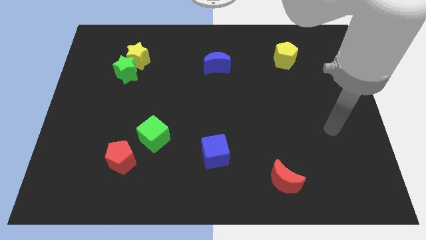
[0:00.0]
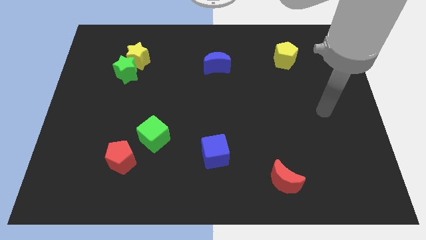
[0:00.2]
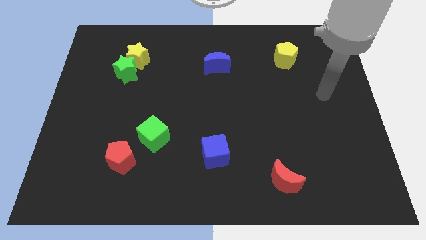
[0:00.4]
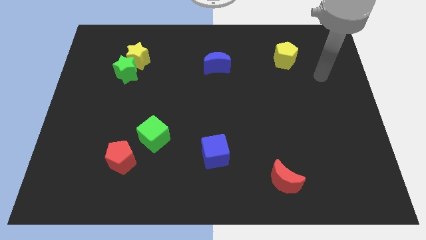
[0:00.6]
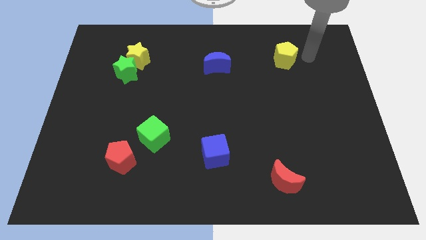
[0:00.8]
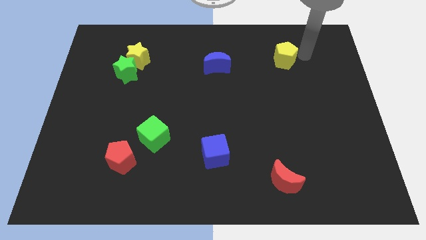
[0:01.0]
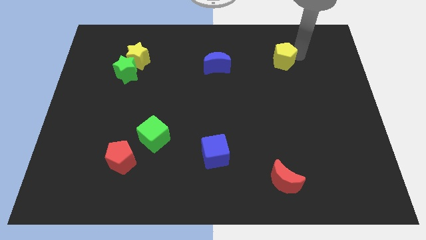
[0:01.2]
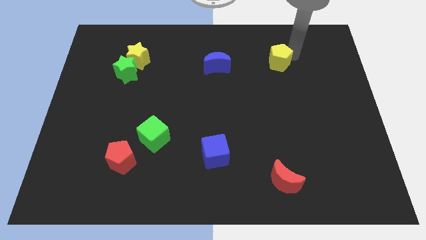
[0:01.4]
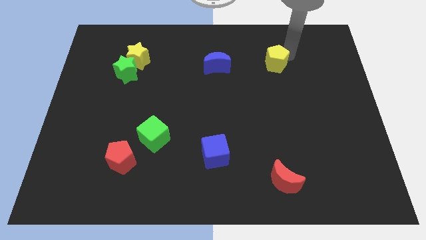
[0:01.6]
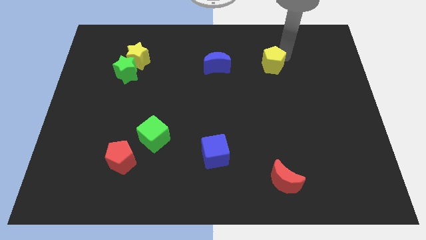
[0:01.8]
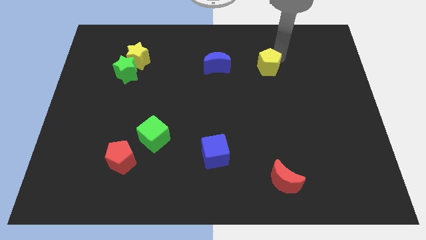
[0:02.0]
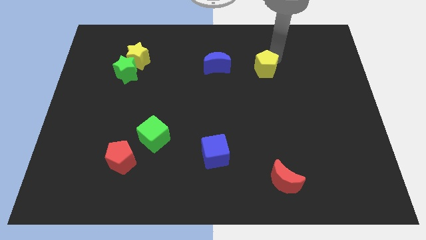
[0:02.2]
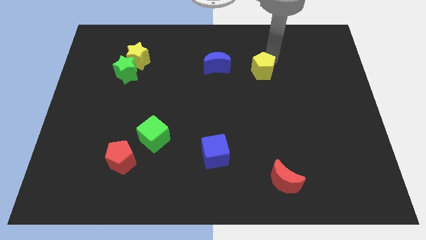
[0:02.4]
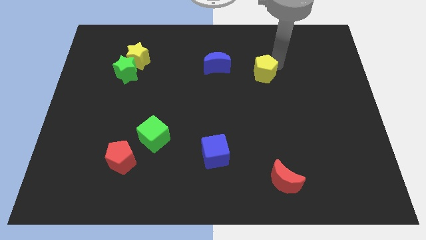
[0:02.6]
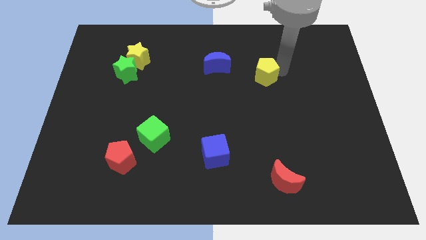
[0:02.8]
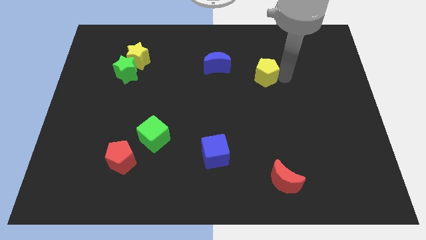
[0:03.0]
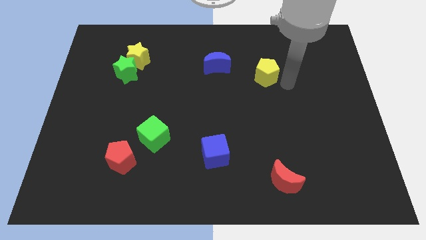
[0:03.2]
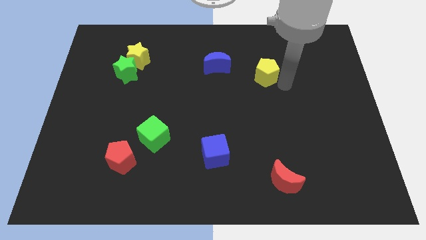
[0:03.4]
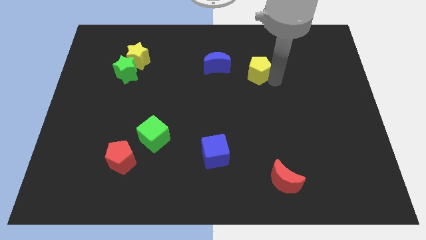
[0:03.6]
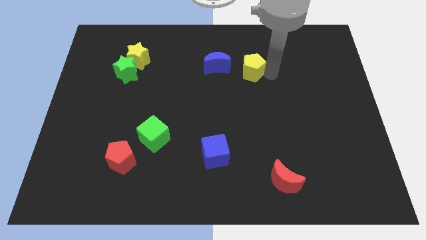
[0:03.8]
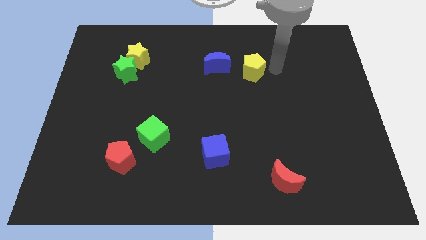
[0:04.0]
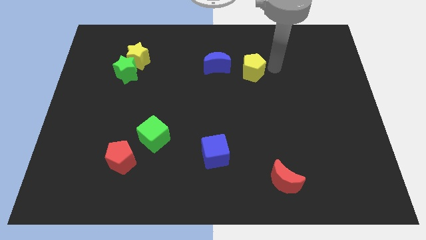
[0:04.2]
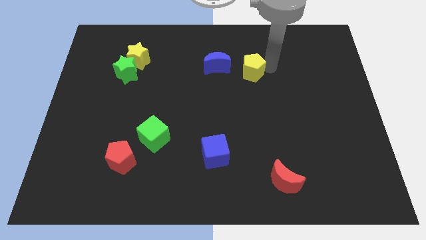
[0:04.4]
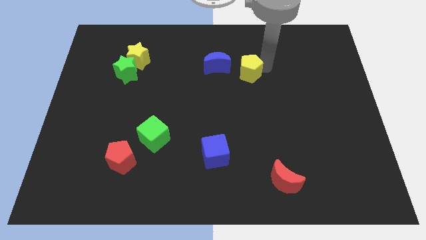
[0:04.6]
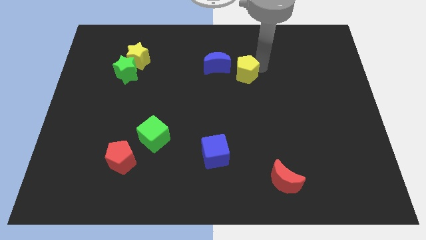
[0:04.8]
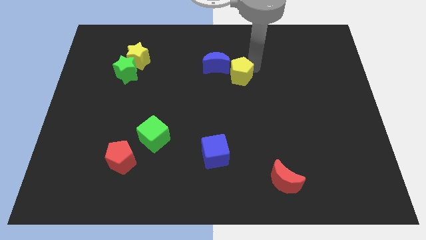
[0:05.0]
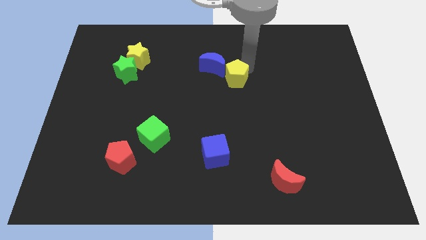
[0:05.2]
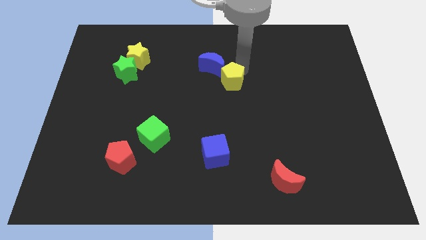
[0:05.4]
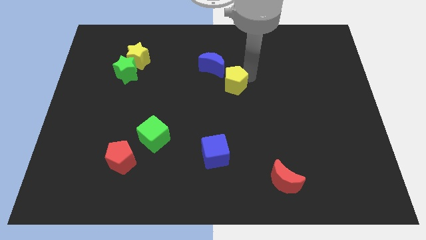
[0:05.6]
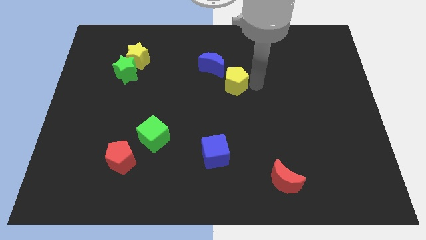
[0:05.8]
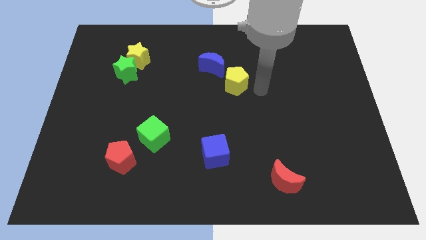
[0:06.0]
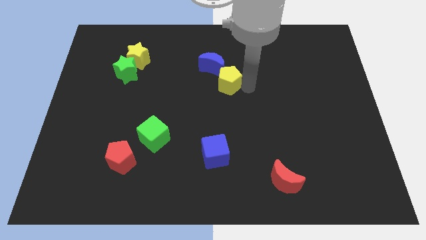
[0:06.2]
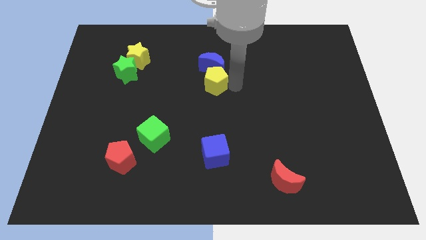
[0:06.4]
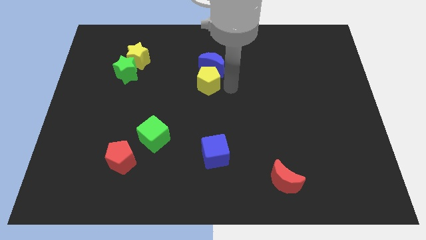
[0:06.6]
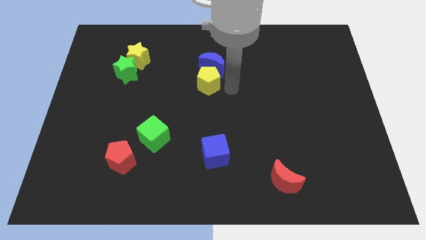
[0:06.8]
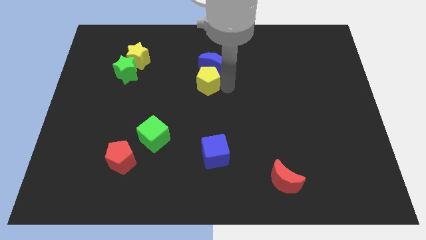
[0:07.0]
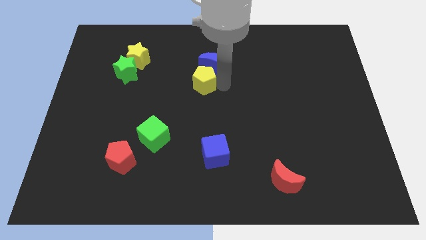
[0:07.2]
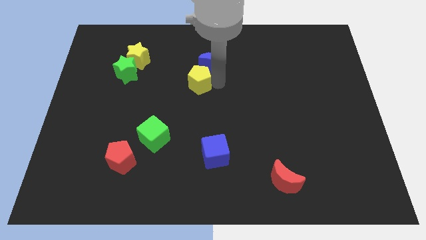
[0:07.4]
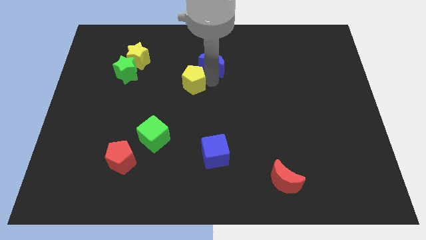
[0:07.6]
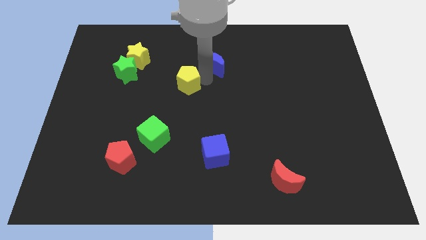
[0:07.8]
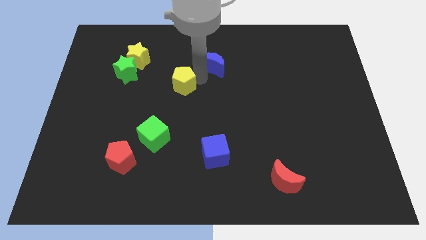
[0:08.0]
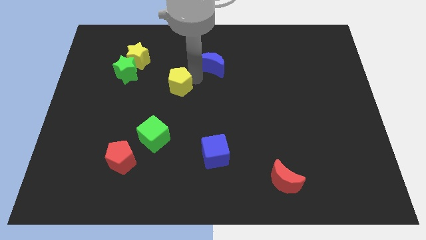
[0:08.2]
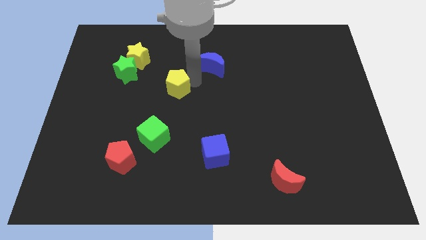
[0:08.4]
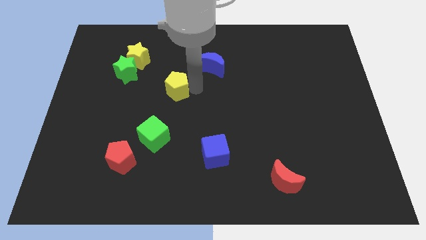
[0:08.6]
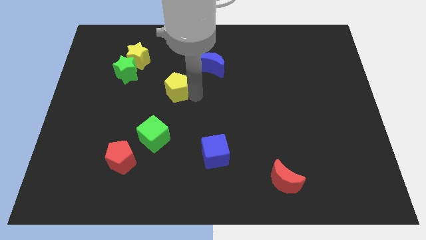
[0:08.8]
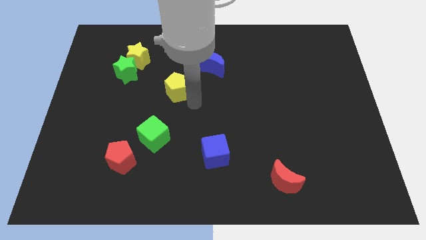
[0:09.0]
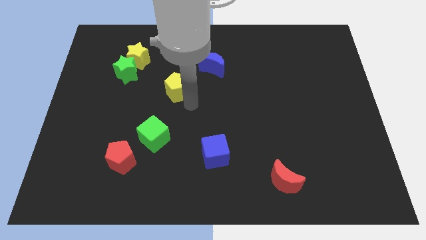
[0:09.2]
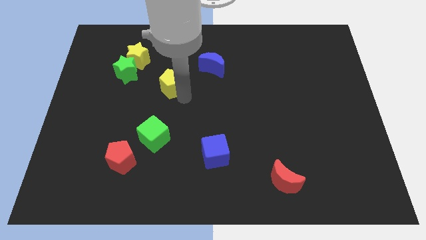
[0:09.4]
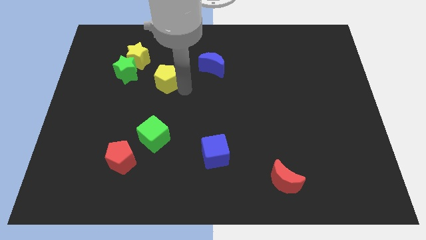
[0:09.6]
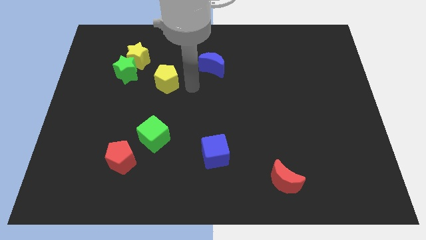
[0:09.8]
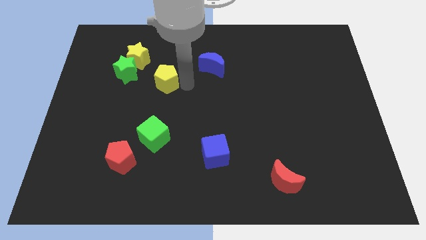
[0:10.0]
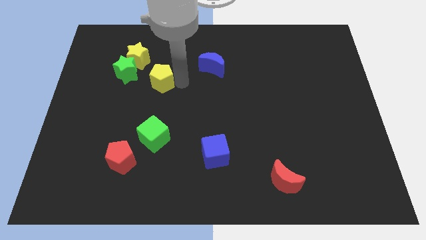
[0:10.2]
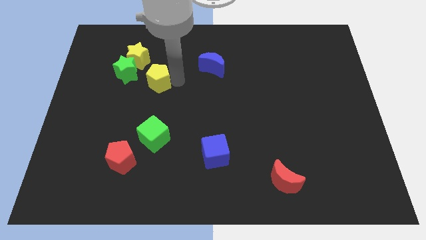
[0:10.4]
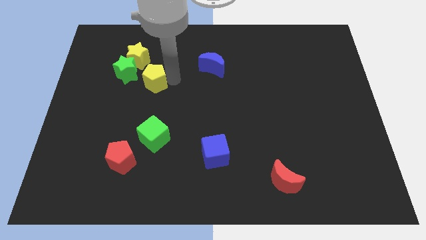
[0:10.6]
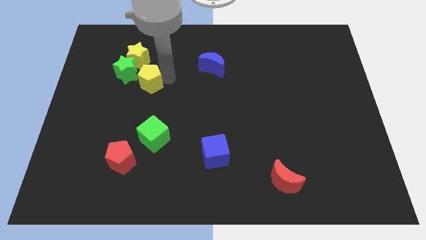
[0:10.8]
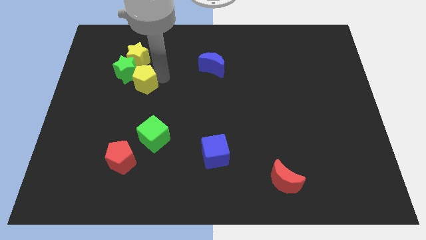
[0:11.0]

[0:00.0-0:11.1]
push the yellow pentagon towards the green star

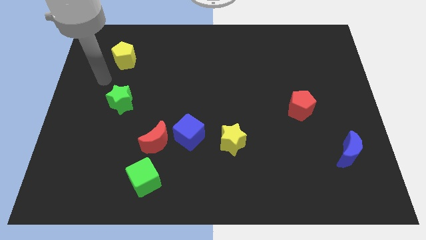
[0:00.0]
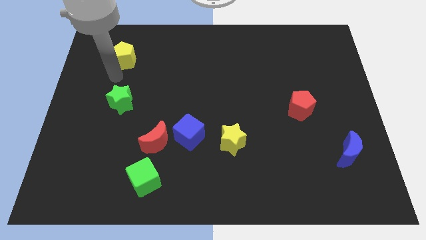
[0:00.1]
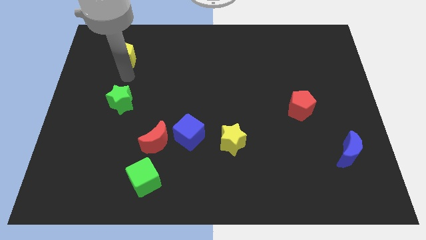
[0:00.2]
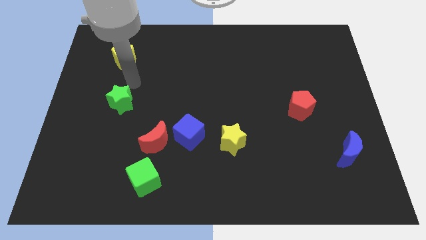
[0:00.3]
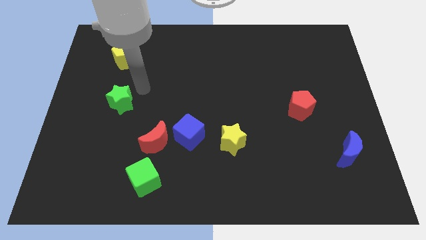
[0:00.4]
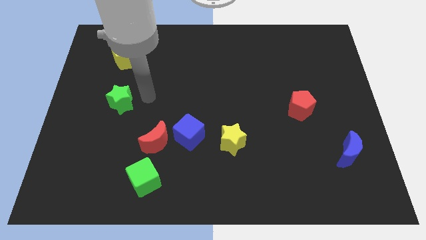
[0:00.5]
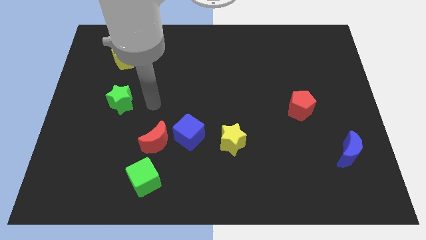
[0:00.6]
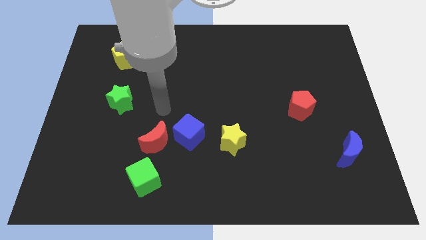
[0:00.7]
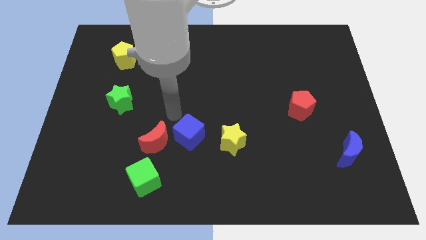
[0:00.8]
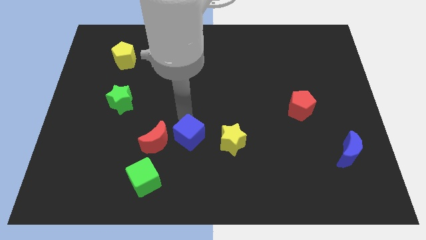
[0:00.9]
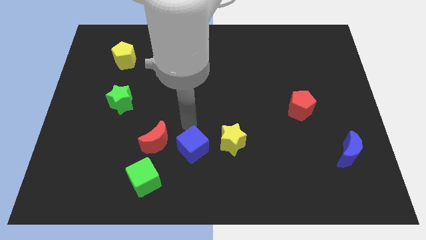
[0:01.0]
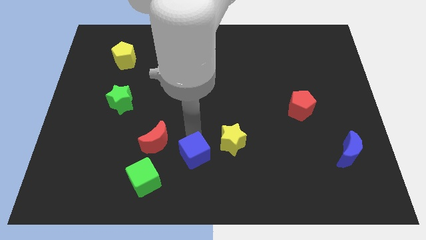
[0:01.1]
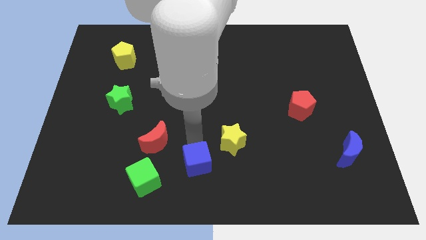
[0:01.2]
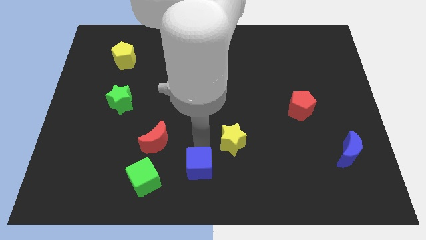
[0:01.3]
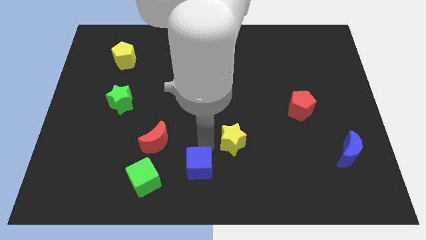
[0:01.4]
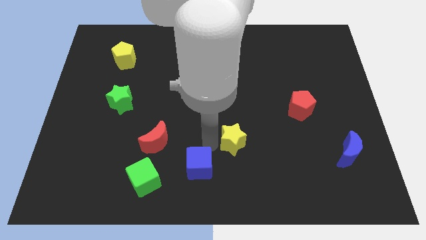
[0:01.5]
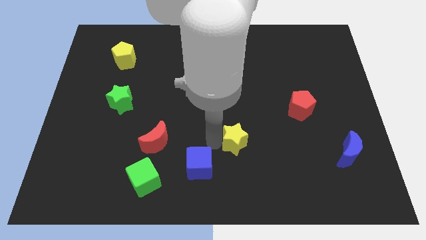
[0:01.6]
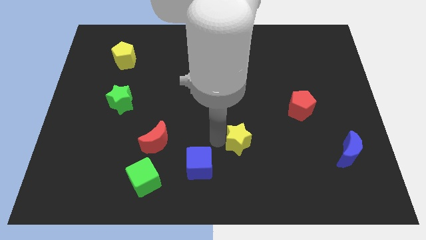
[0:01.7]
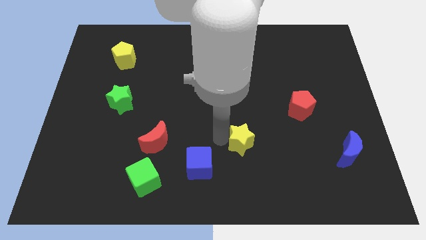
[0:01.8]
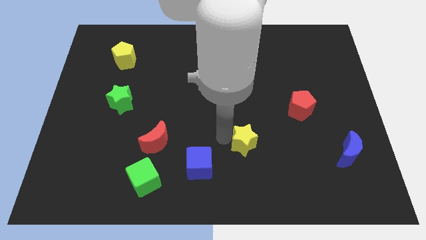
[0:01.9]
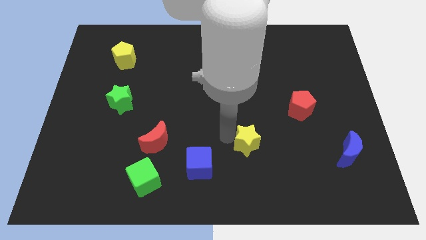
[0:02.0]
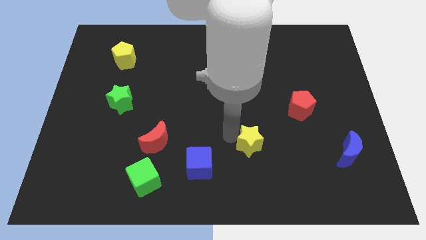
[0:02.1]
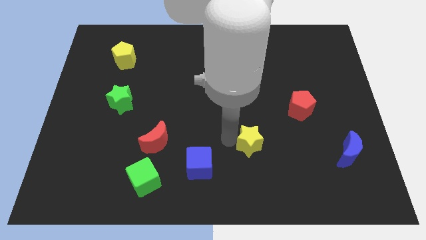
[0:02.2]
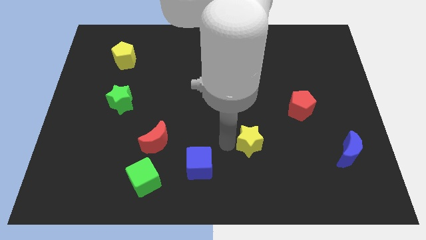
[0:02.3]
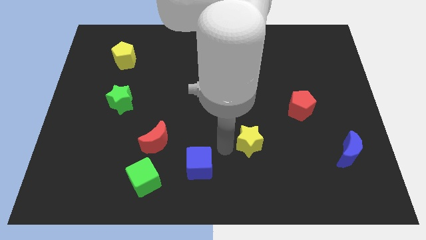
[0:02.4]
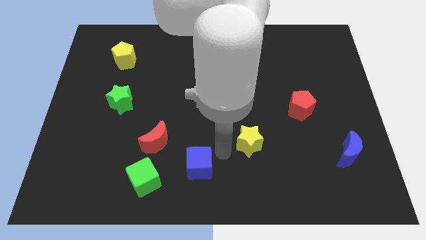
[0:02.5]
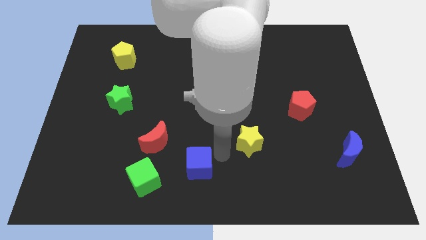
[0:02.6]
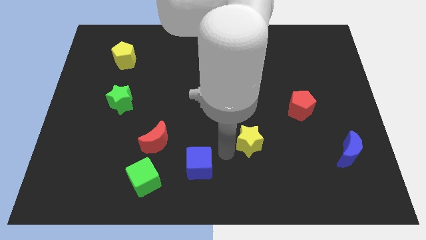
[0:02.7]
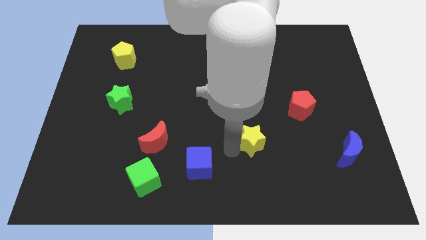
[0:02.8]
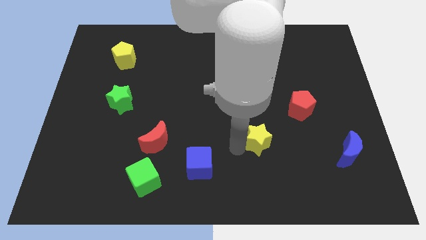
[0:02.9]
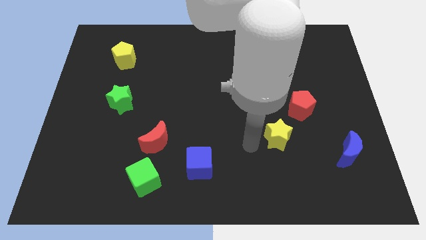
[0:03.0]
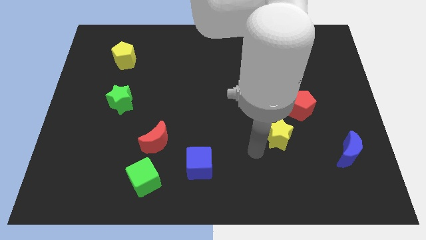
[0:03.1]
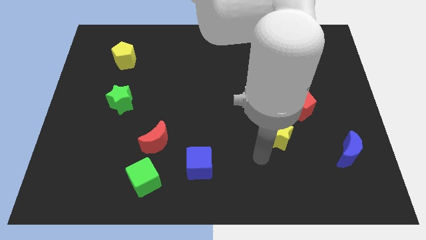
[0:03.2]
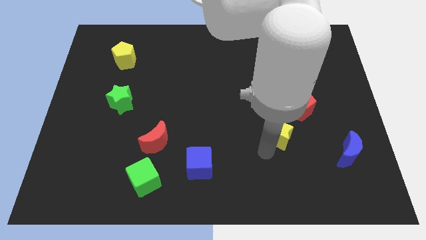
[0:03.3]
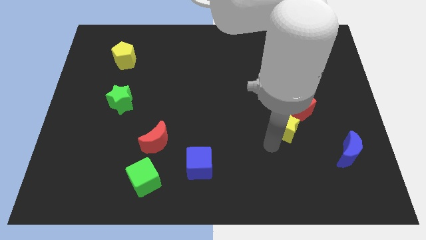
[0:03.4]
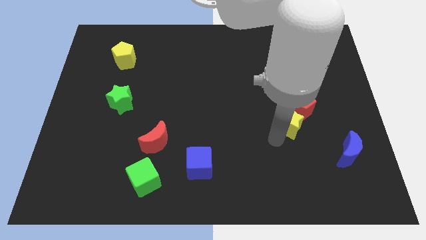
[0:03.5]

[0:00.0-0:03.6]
slide the yellow star towards the red pentagon
